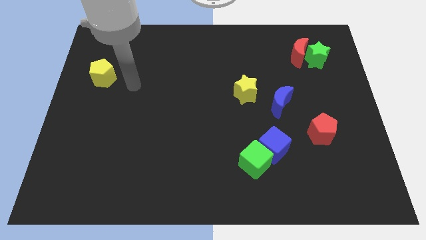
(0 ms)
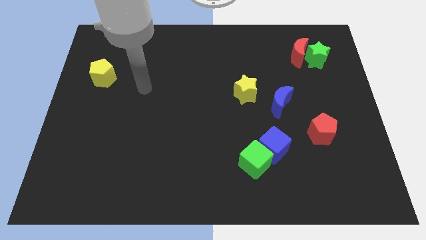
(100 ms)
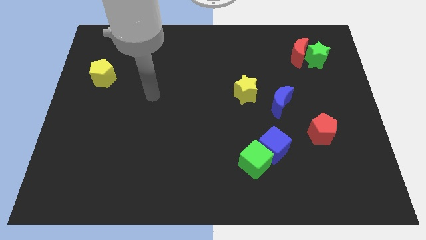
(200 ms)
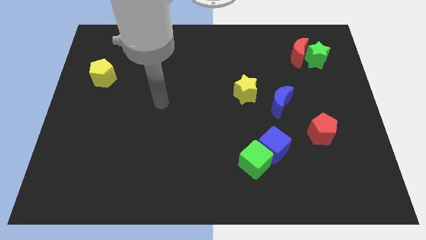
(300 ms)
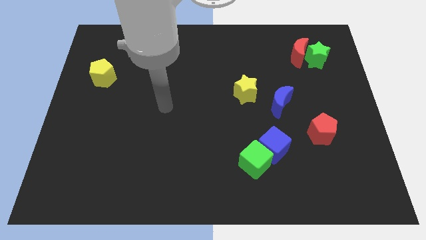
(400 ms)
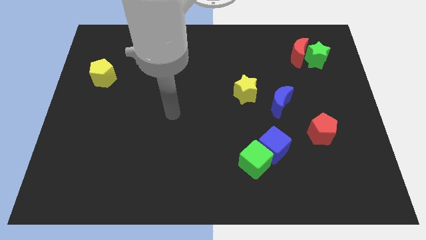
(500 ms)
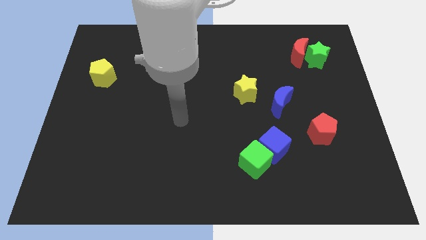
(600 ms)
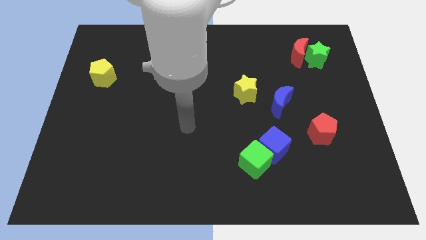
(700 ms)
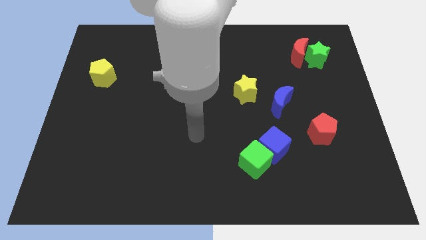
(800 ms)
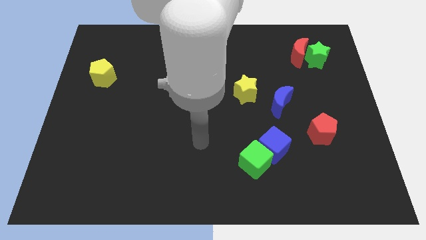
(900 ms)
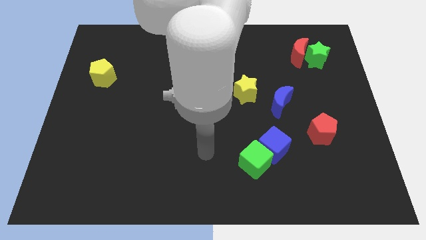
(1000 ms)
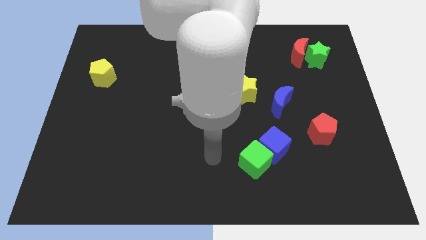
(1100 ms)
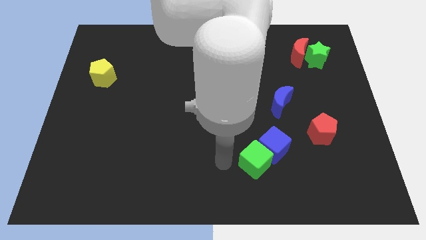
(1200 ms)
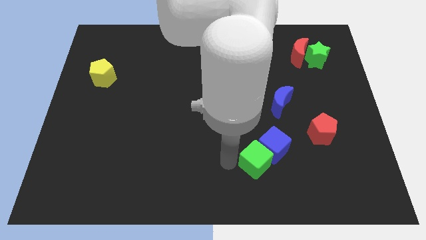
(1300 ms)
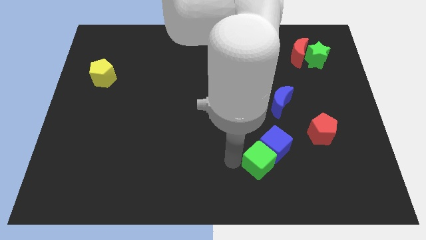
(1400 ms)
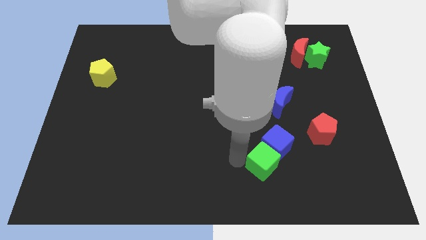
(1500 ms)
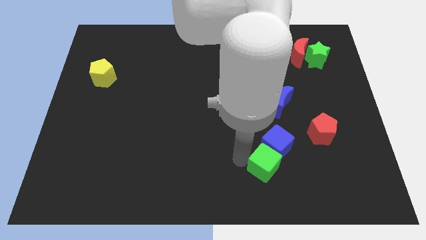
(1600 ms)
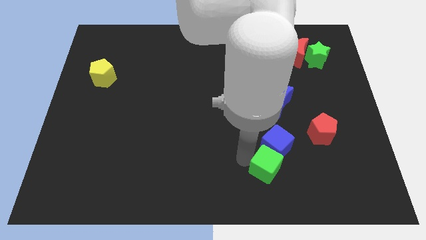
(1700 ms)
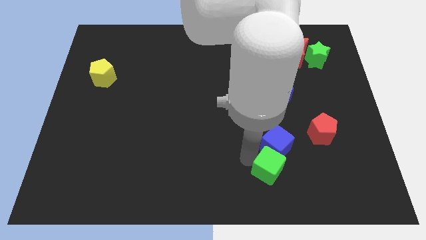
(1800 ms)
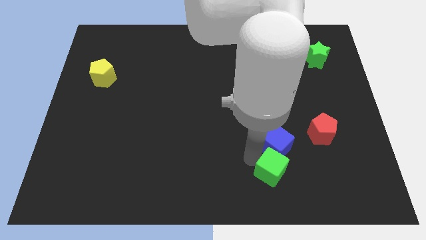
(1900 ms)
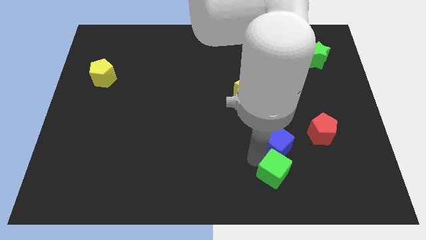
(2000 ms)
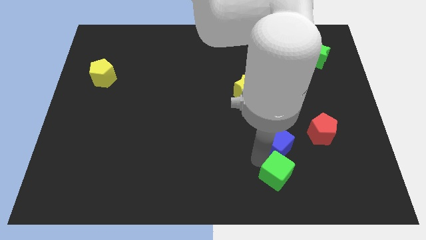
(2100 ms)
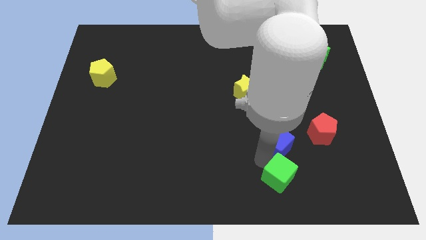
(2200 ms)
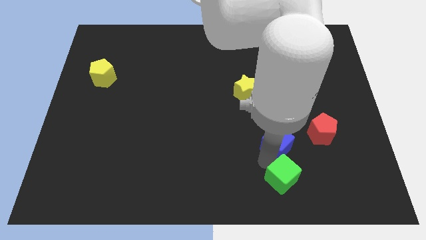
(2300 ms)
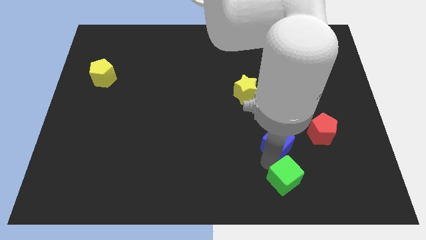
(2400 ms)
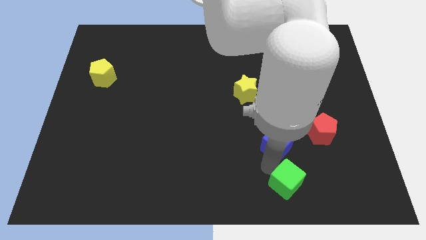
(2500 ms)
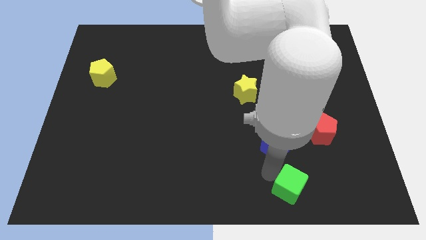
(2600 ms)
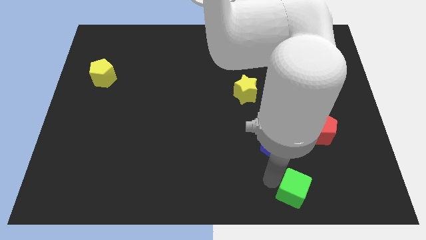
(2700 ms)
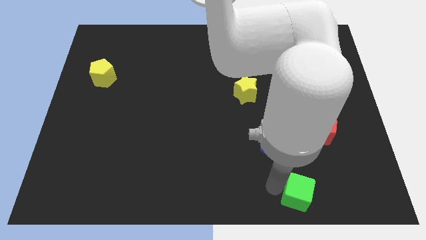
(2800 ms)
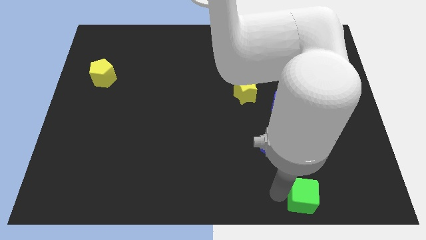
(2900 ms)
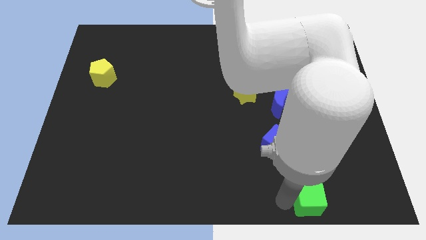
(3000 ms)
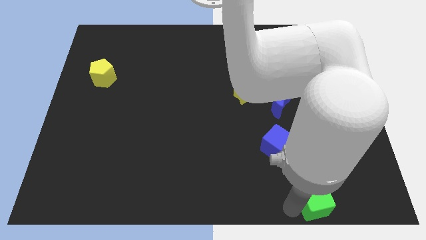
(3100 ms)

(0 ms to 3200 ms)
slide the green cube right a little bit

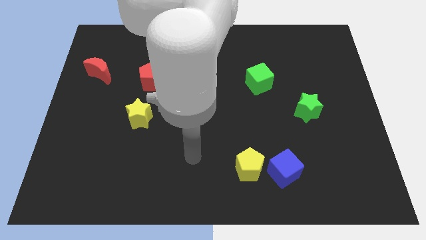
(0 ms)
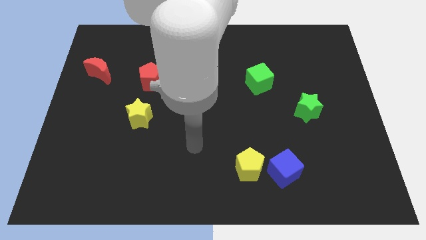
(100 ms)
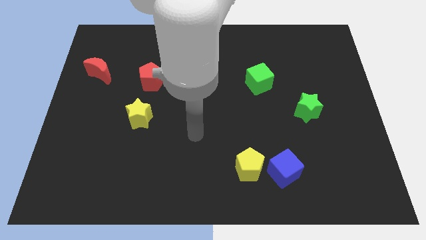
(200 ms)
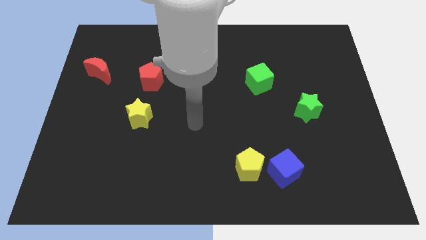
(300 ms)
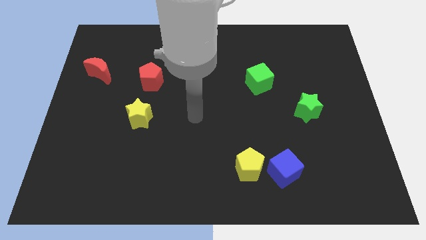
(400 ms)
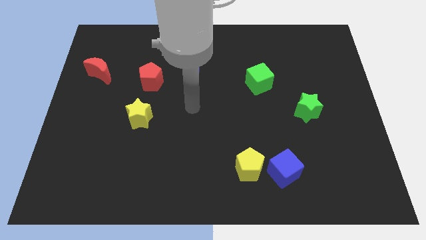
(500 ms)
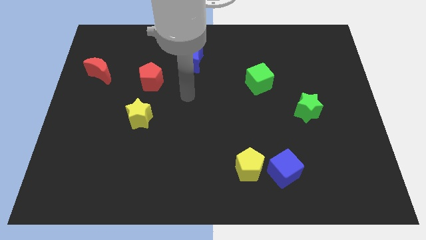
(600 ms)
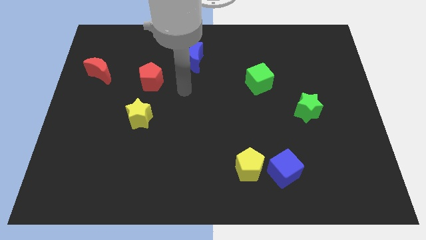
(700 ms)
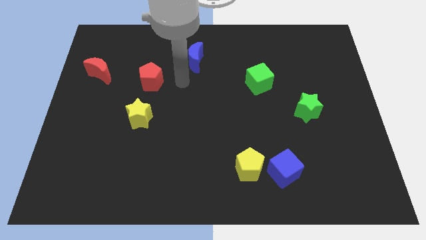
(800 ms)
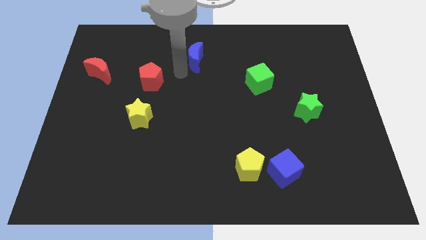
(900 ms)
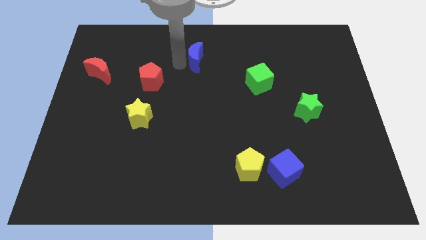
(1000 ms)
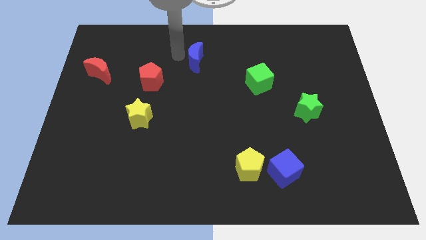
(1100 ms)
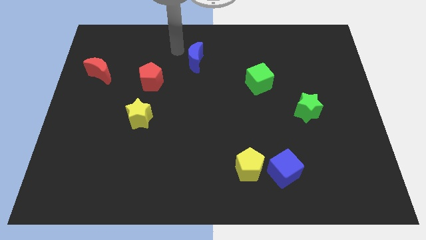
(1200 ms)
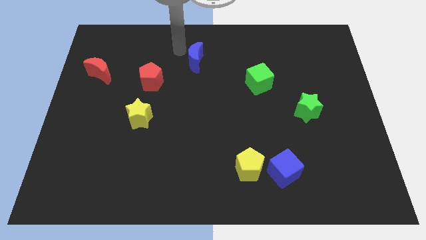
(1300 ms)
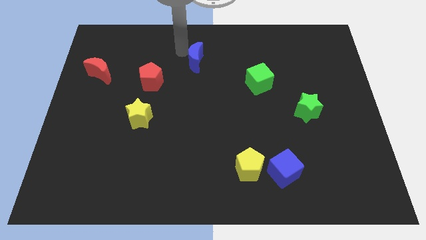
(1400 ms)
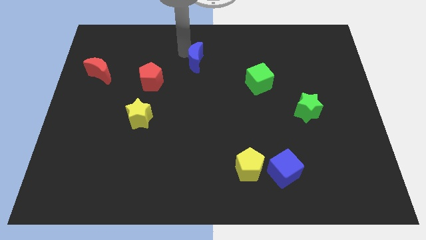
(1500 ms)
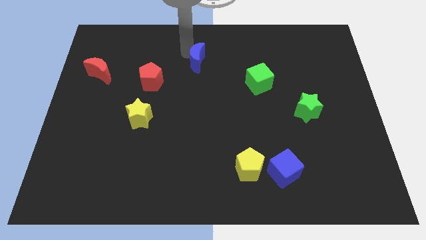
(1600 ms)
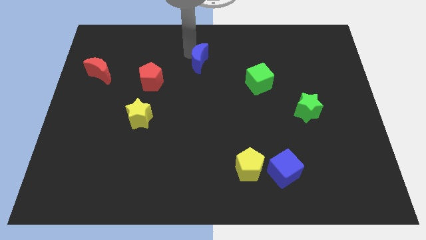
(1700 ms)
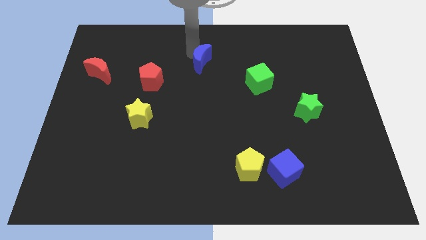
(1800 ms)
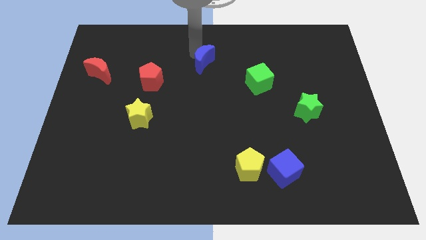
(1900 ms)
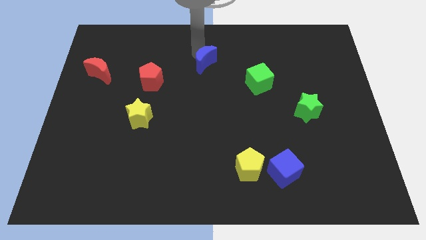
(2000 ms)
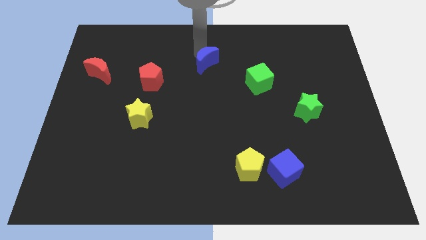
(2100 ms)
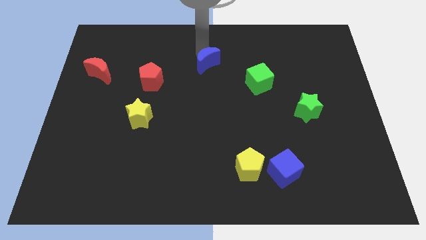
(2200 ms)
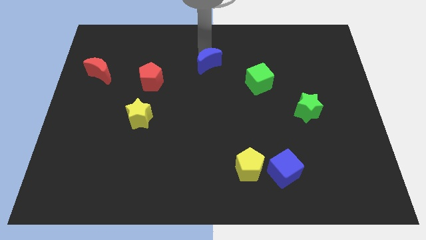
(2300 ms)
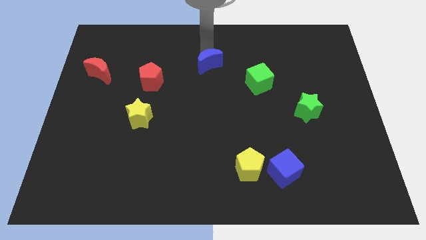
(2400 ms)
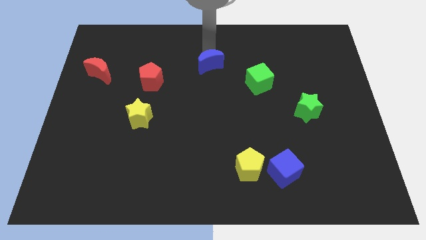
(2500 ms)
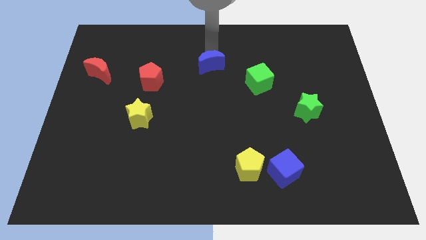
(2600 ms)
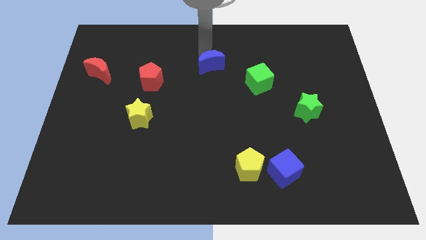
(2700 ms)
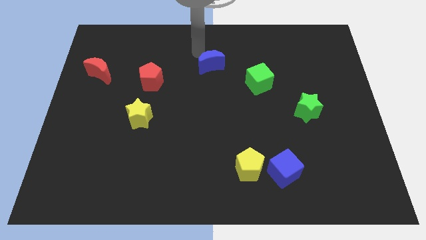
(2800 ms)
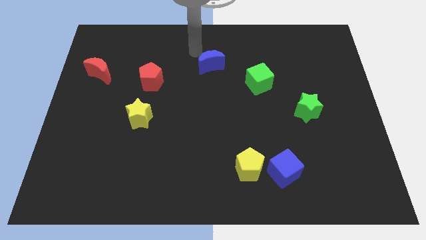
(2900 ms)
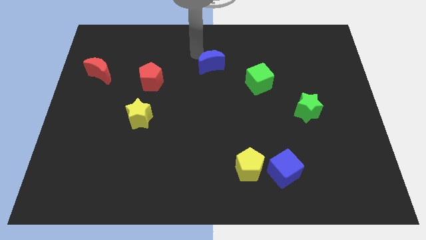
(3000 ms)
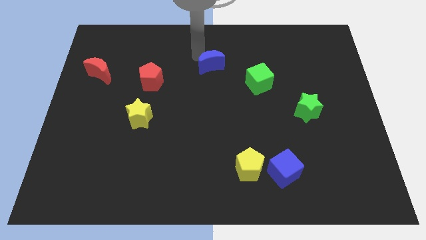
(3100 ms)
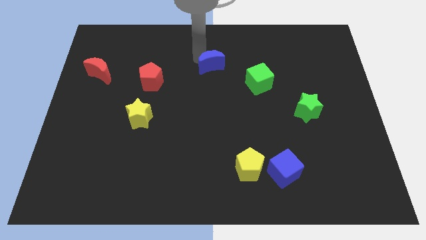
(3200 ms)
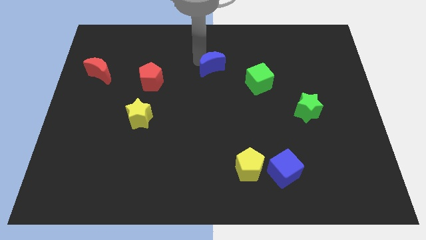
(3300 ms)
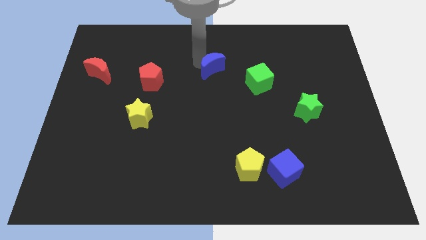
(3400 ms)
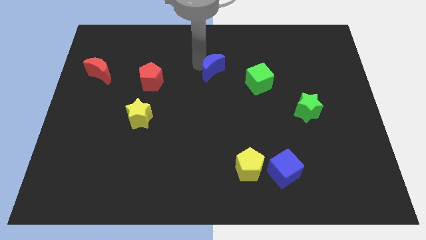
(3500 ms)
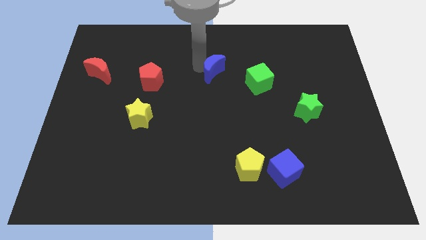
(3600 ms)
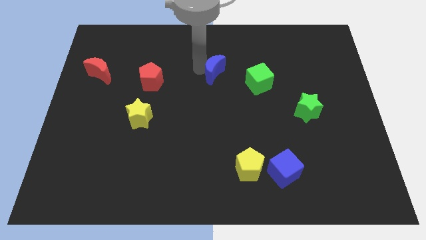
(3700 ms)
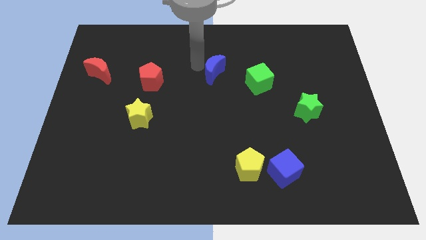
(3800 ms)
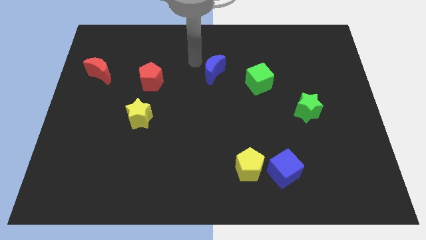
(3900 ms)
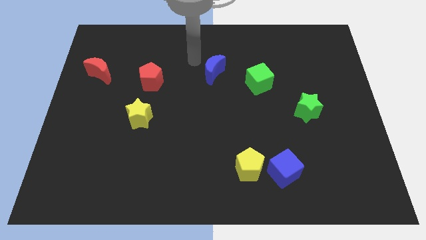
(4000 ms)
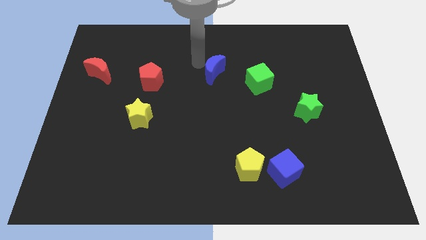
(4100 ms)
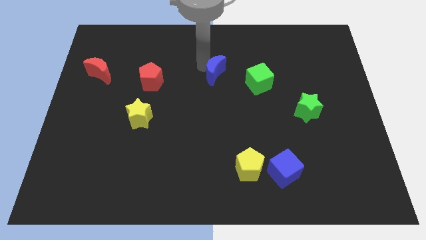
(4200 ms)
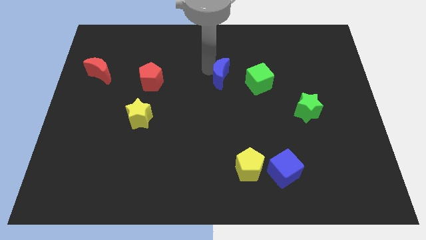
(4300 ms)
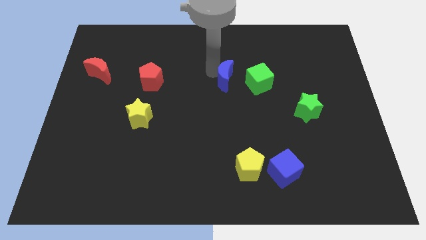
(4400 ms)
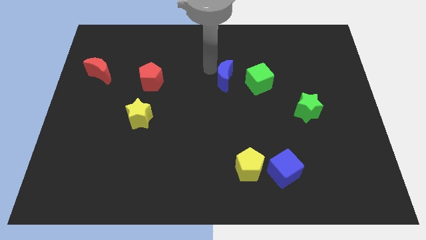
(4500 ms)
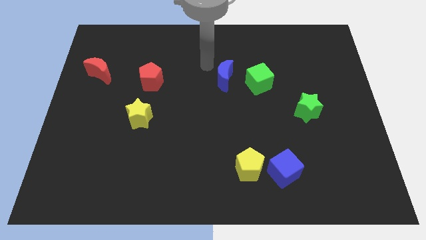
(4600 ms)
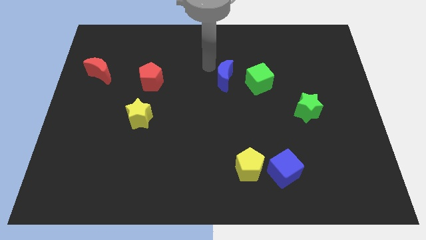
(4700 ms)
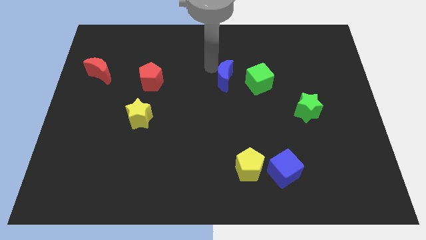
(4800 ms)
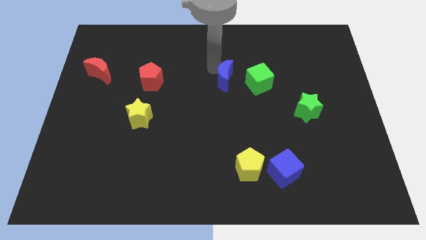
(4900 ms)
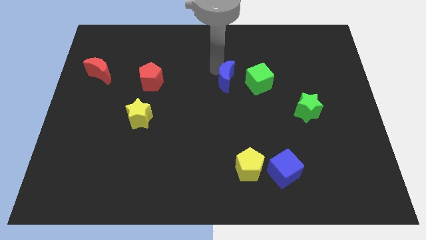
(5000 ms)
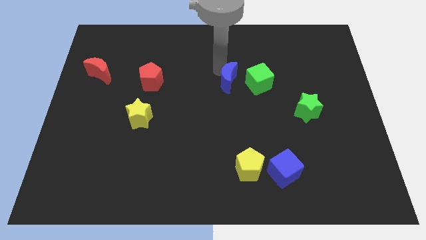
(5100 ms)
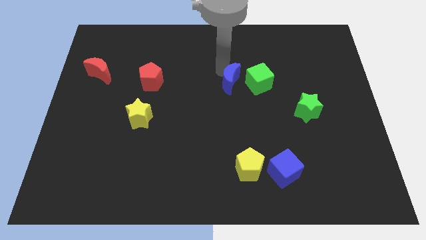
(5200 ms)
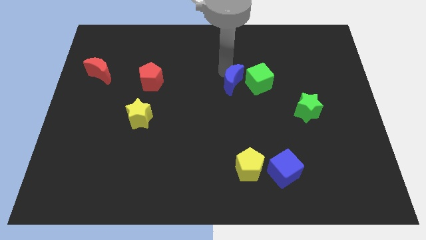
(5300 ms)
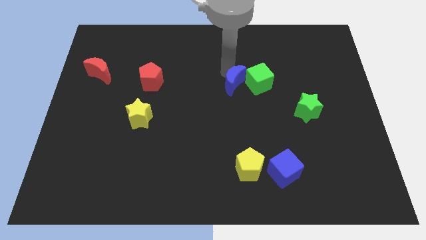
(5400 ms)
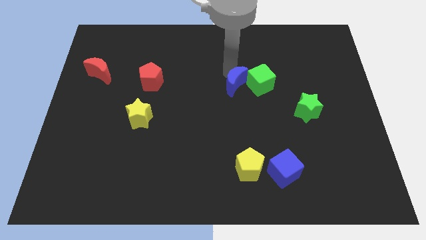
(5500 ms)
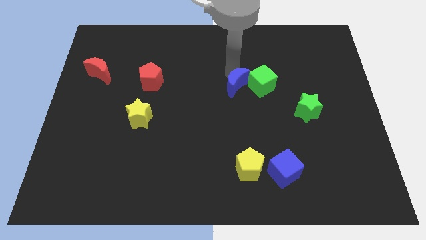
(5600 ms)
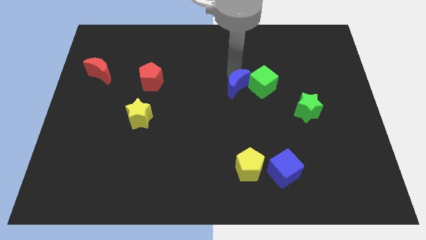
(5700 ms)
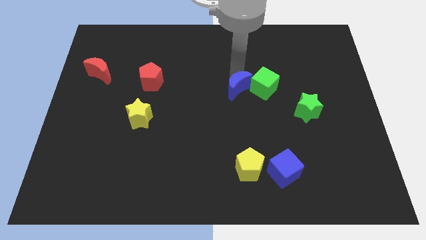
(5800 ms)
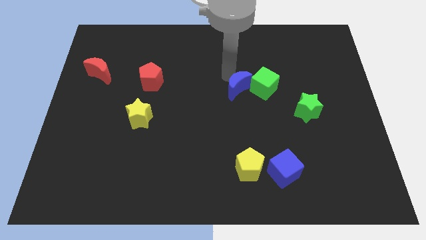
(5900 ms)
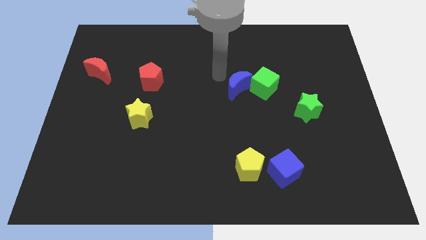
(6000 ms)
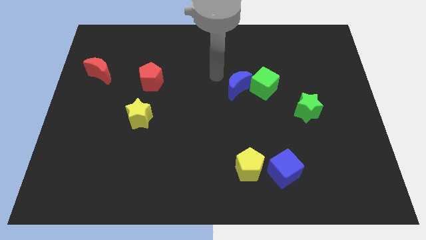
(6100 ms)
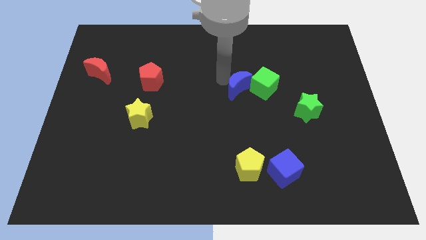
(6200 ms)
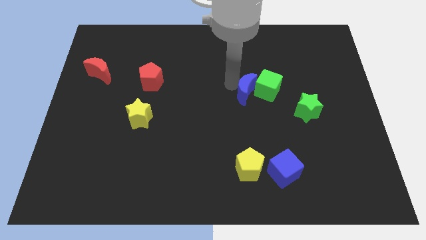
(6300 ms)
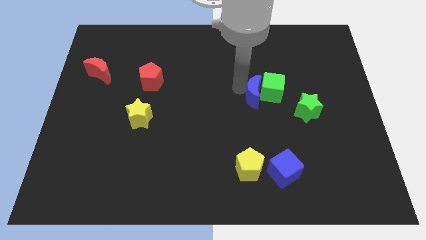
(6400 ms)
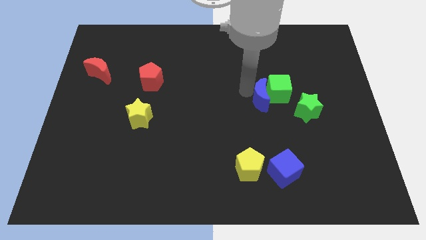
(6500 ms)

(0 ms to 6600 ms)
push the blue moon down and right diagonally
